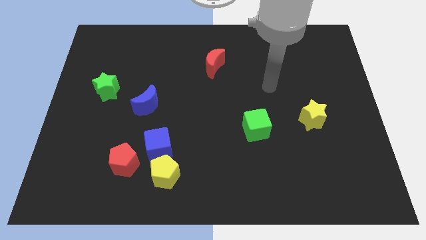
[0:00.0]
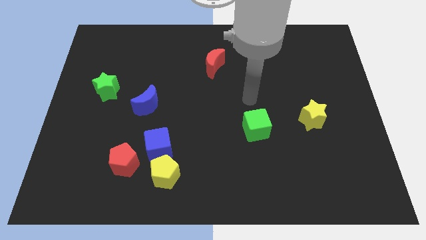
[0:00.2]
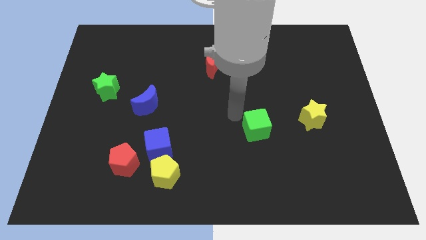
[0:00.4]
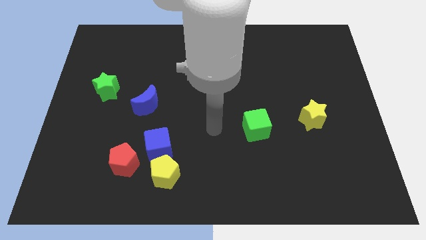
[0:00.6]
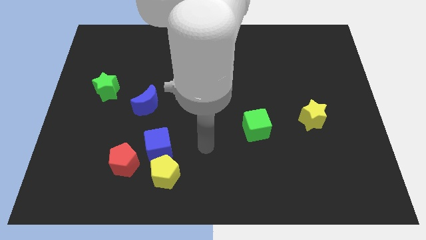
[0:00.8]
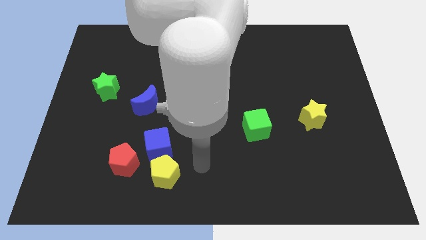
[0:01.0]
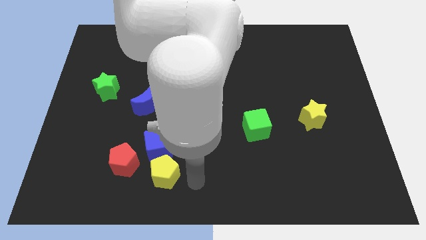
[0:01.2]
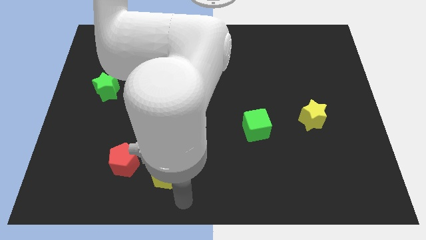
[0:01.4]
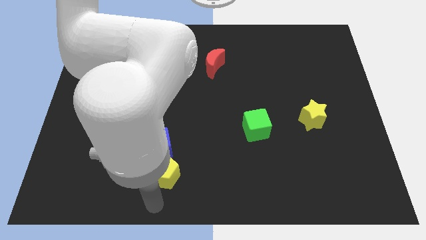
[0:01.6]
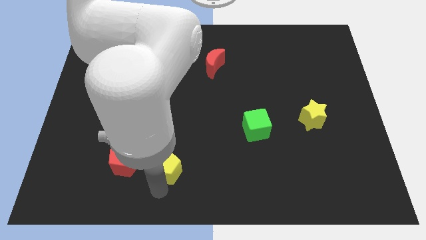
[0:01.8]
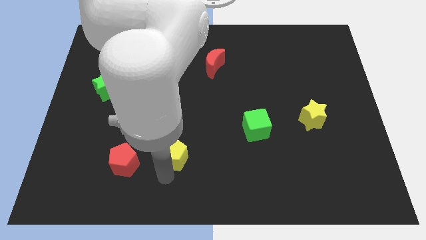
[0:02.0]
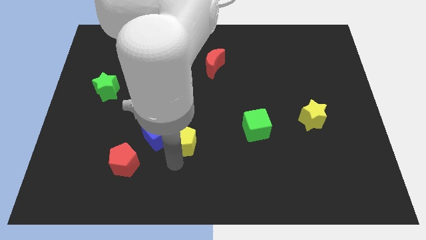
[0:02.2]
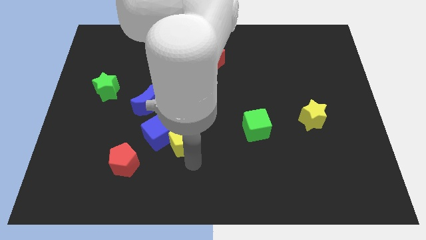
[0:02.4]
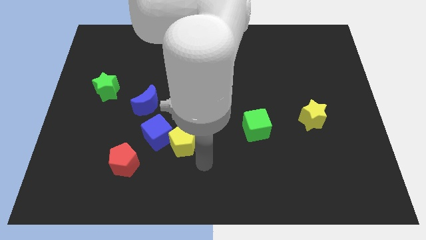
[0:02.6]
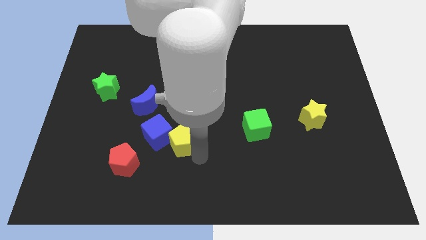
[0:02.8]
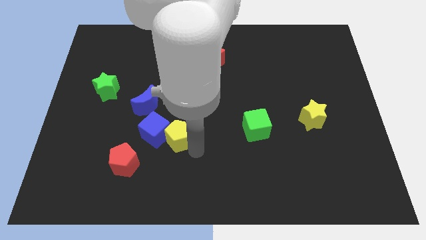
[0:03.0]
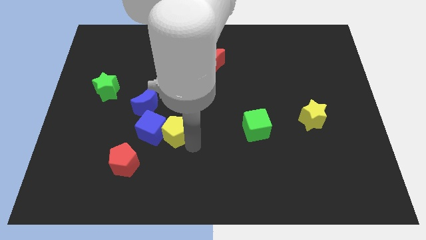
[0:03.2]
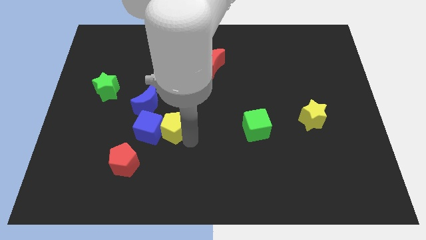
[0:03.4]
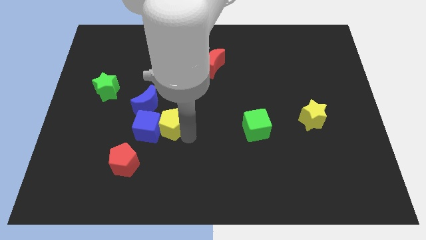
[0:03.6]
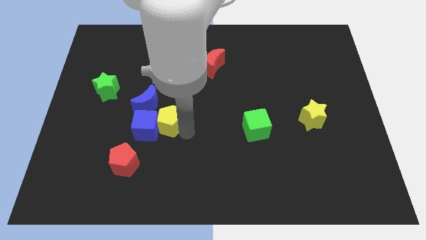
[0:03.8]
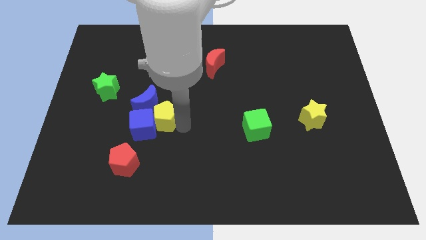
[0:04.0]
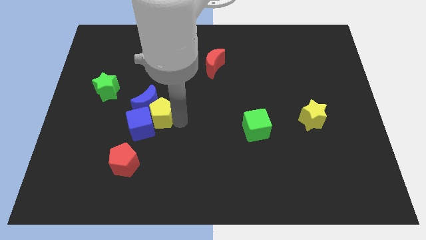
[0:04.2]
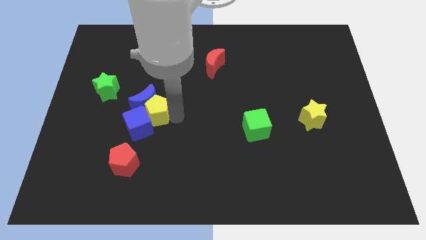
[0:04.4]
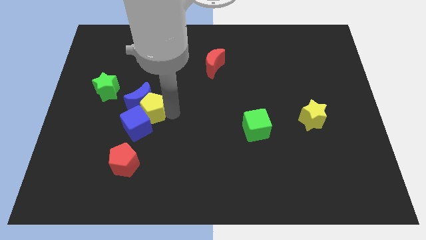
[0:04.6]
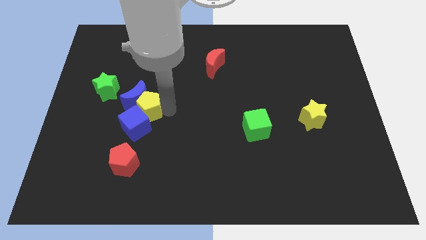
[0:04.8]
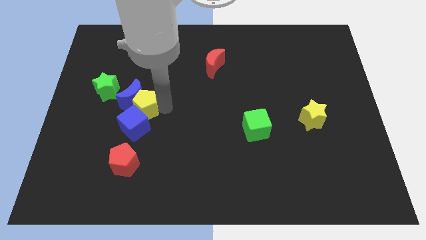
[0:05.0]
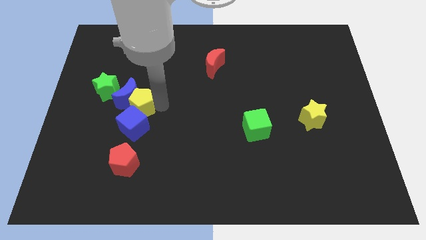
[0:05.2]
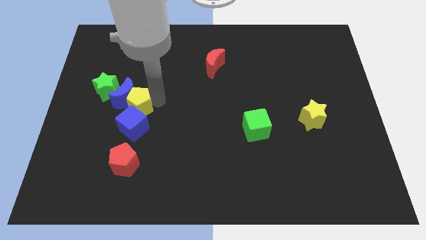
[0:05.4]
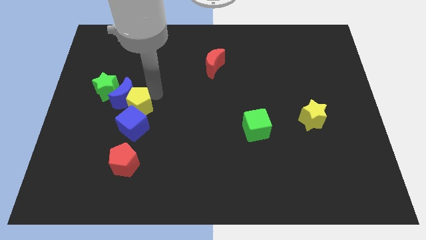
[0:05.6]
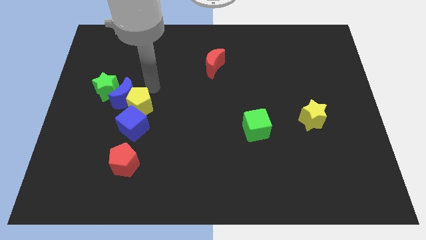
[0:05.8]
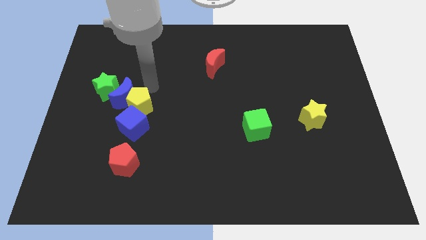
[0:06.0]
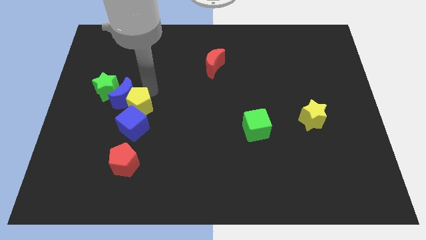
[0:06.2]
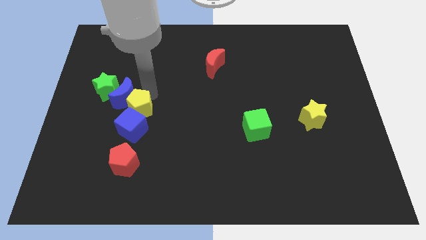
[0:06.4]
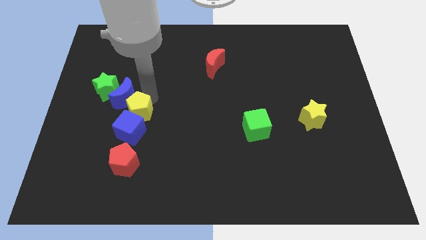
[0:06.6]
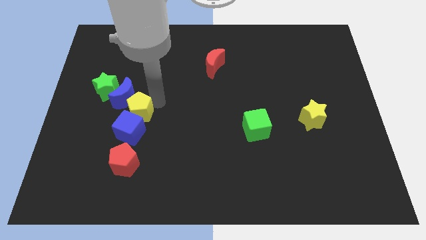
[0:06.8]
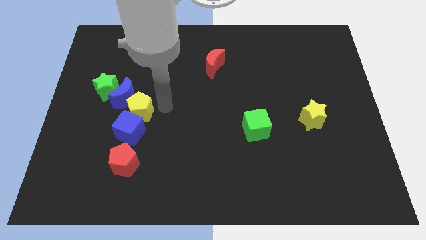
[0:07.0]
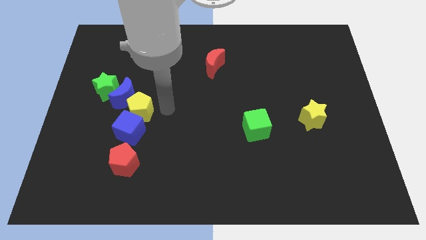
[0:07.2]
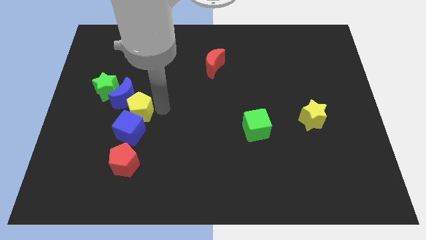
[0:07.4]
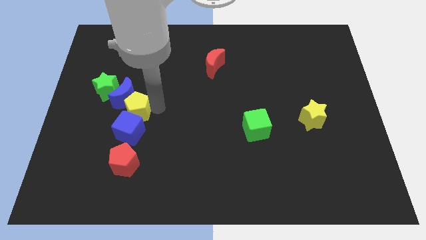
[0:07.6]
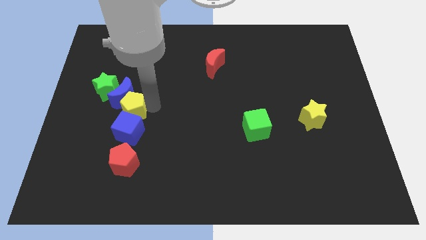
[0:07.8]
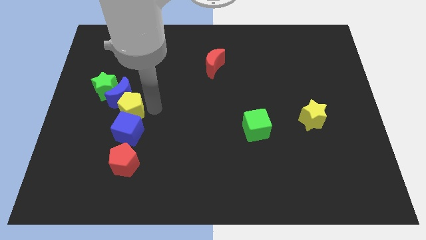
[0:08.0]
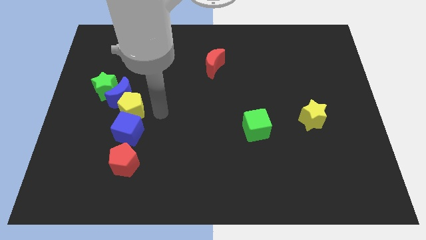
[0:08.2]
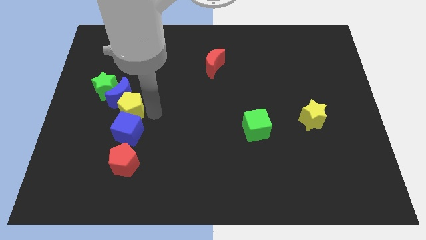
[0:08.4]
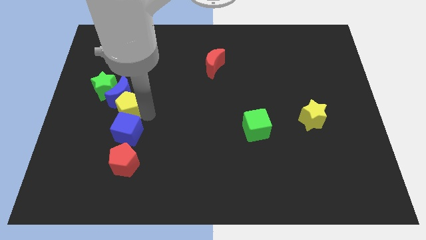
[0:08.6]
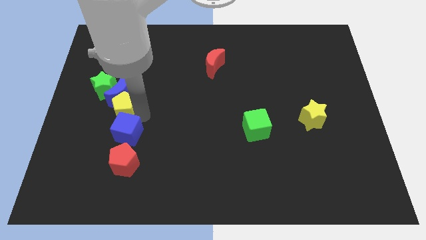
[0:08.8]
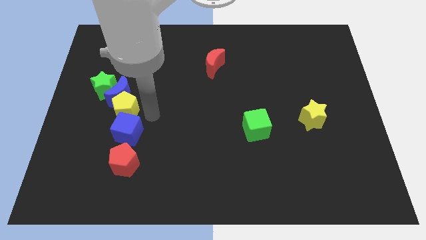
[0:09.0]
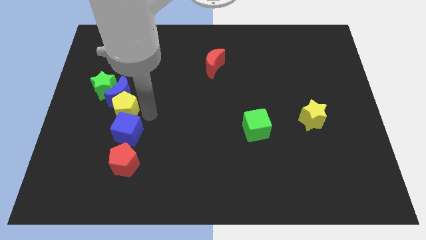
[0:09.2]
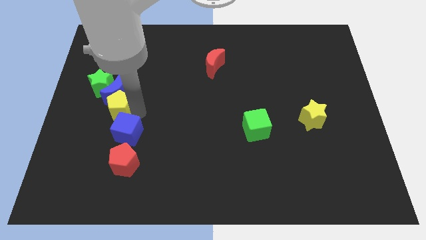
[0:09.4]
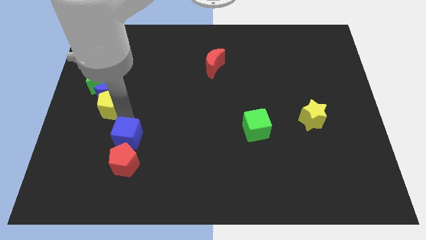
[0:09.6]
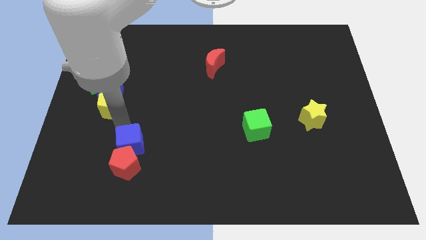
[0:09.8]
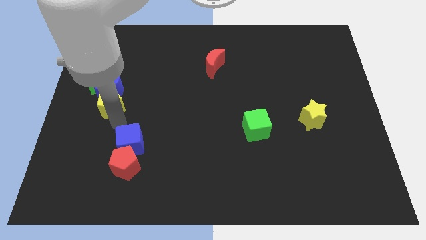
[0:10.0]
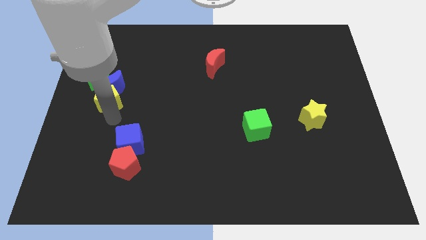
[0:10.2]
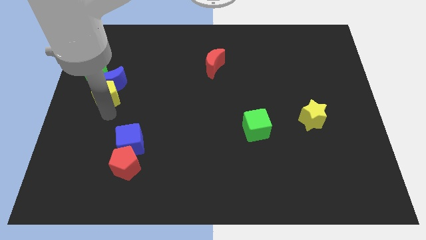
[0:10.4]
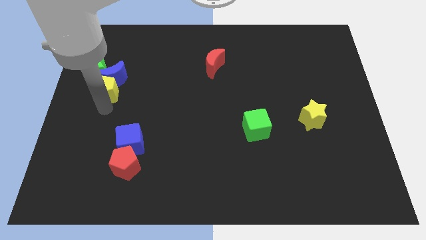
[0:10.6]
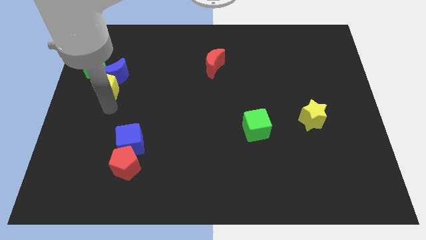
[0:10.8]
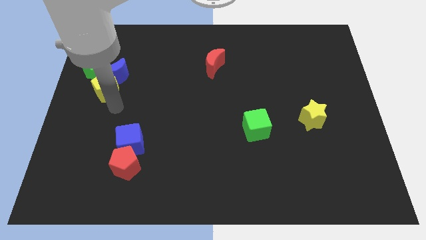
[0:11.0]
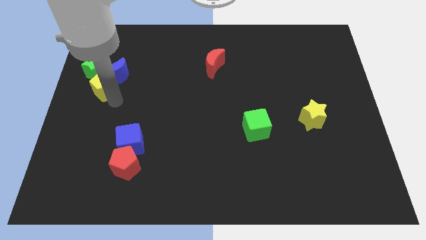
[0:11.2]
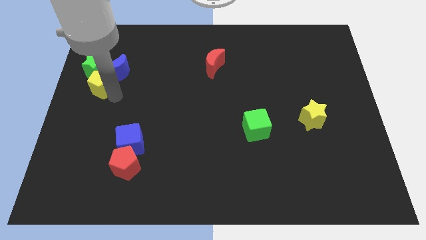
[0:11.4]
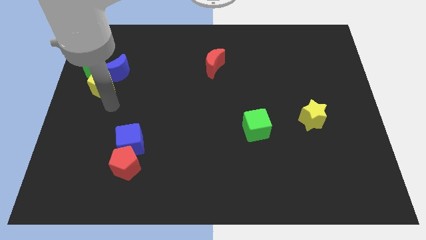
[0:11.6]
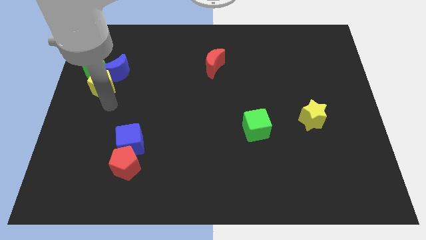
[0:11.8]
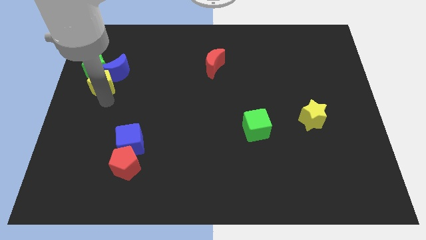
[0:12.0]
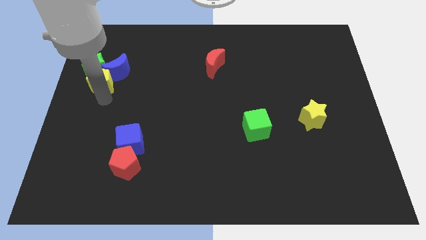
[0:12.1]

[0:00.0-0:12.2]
push the yellow pentagon towards the green star

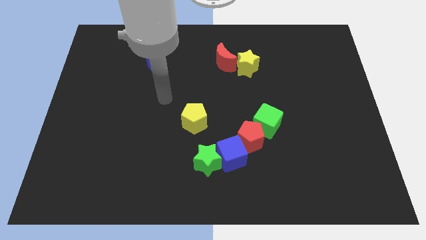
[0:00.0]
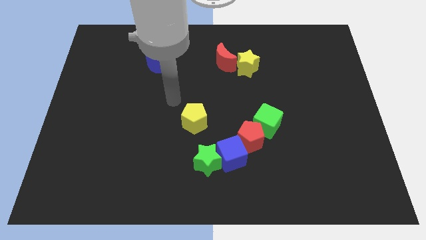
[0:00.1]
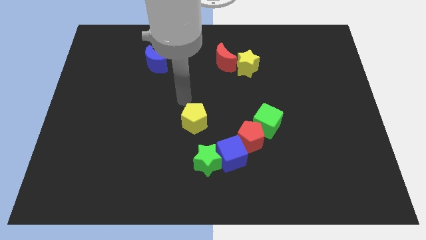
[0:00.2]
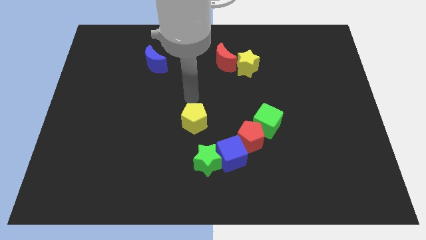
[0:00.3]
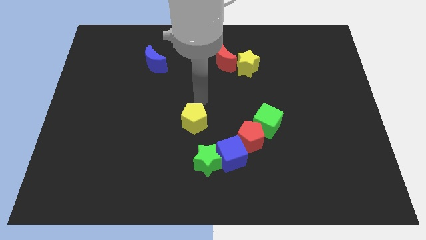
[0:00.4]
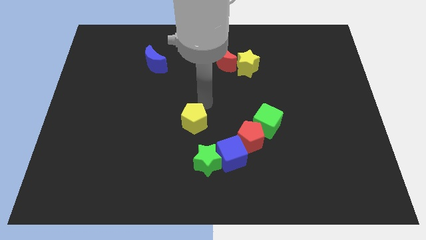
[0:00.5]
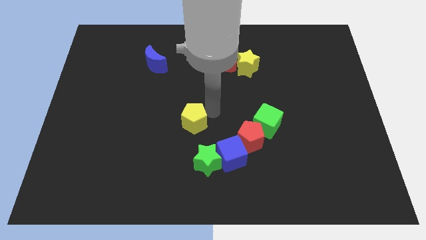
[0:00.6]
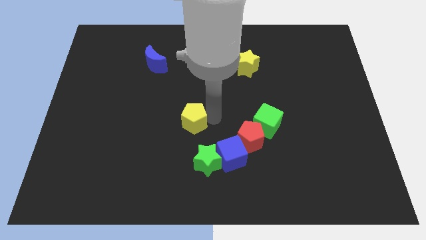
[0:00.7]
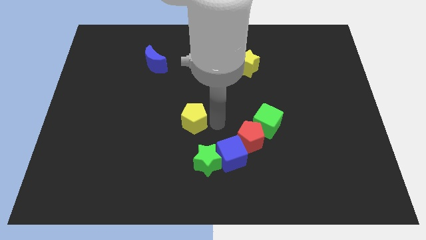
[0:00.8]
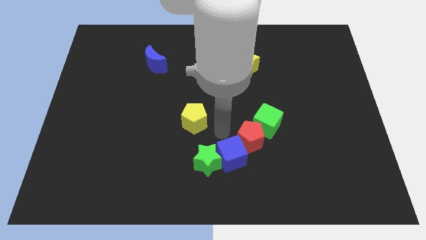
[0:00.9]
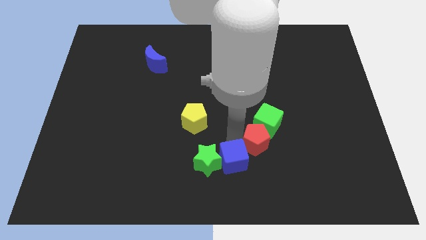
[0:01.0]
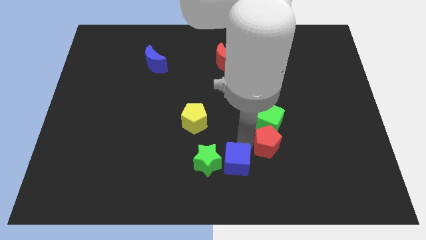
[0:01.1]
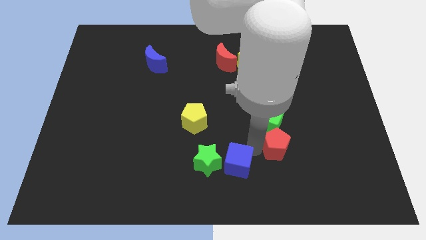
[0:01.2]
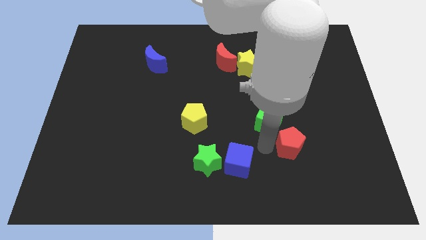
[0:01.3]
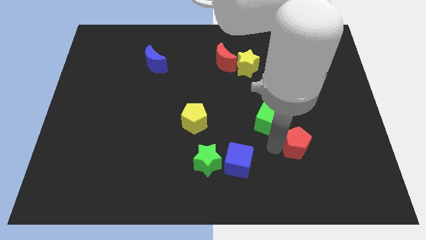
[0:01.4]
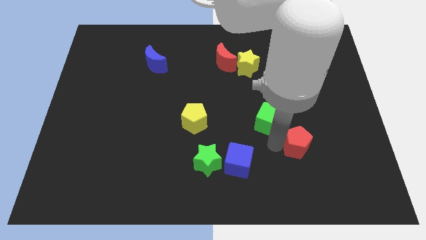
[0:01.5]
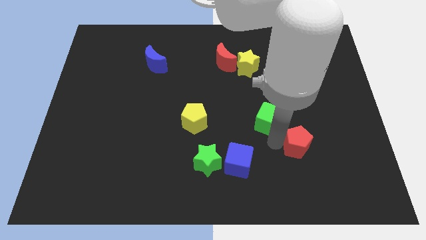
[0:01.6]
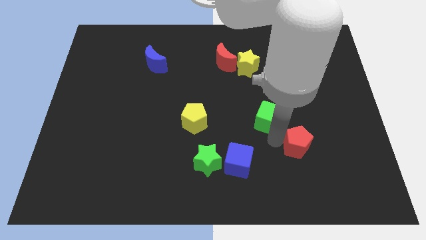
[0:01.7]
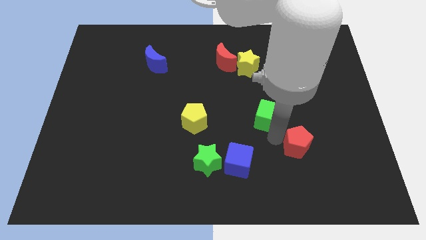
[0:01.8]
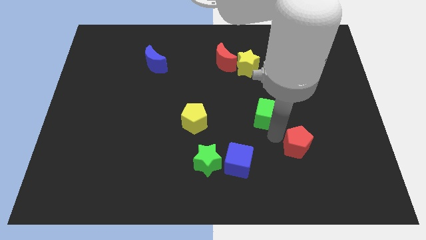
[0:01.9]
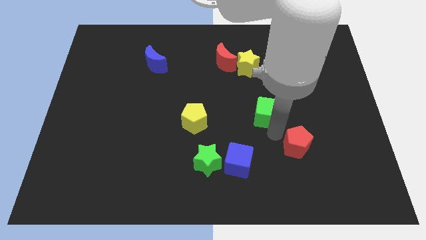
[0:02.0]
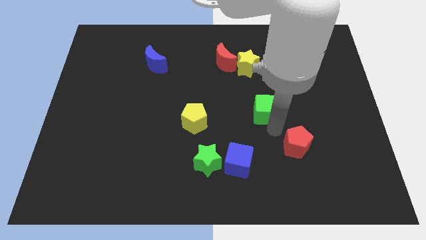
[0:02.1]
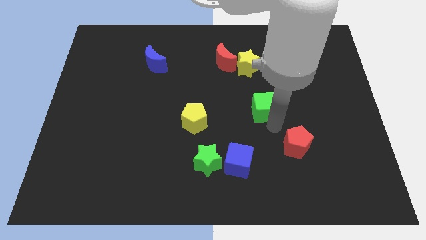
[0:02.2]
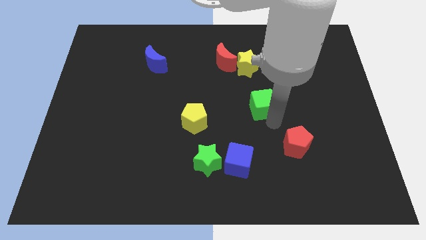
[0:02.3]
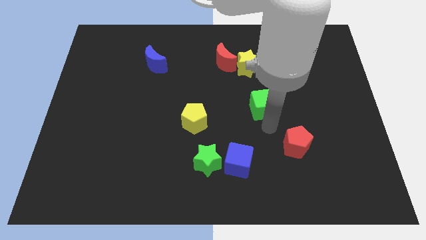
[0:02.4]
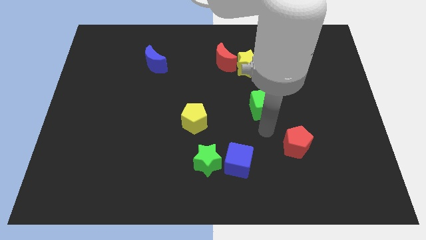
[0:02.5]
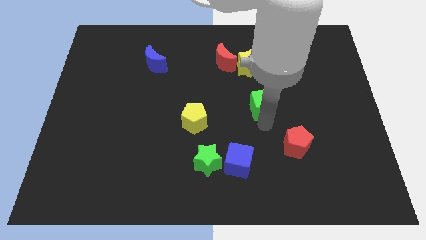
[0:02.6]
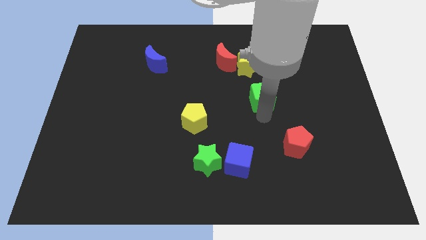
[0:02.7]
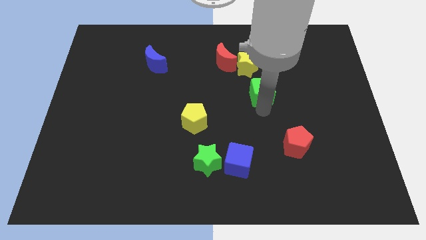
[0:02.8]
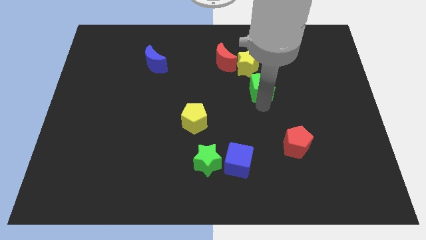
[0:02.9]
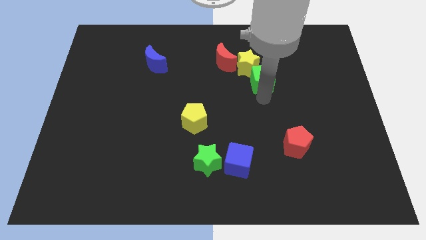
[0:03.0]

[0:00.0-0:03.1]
move the green cube close to the yellow star
